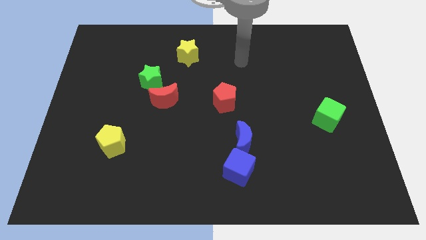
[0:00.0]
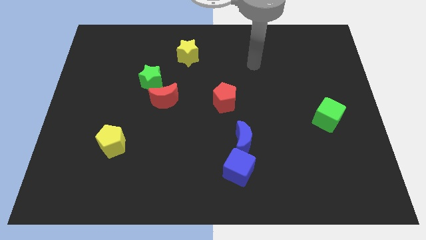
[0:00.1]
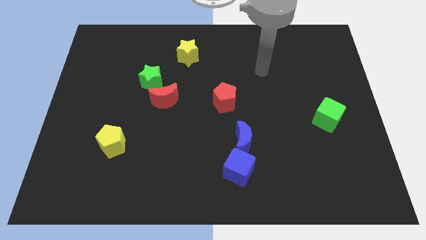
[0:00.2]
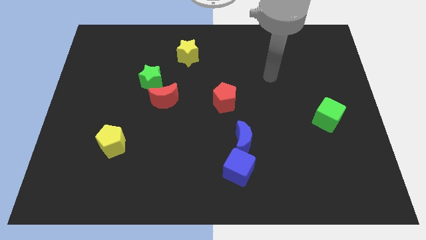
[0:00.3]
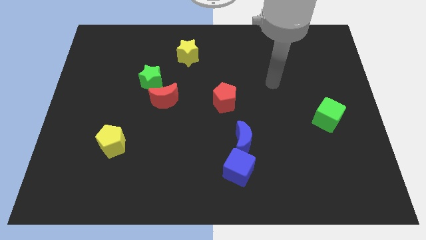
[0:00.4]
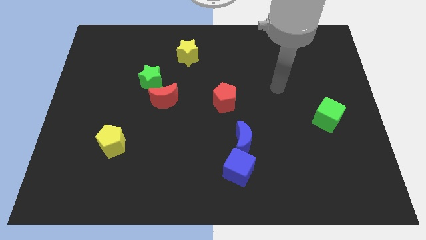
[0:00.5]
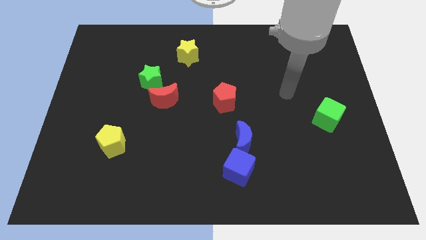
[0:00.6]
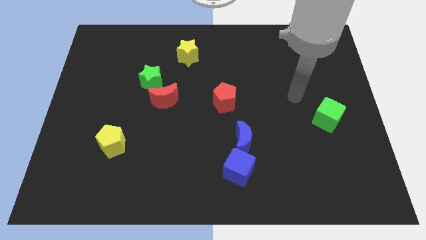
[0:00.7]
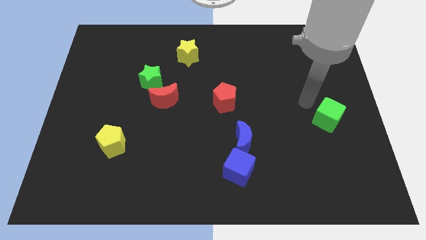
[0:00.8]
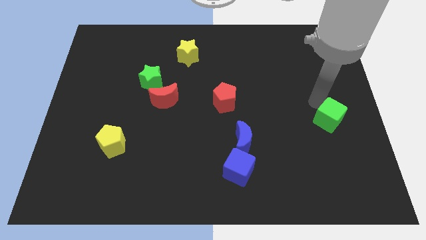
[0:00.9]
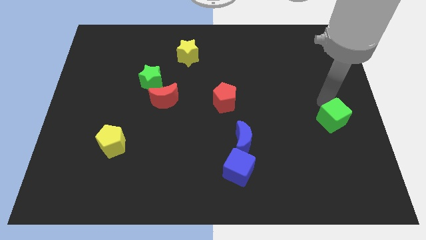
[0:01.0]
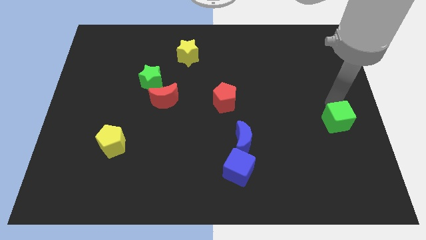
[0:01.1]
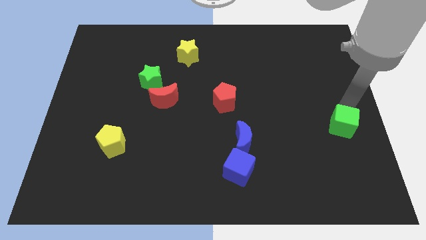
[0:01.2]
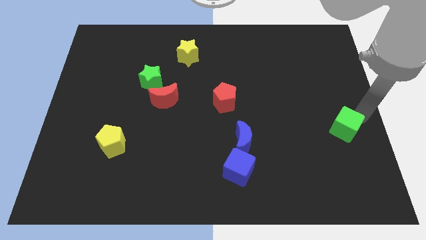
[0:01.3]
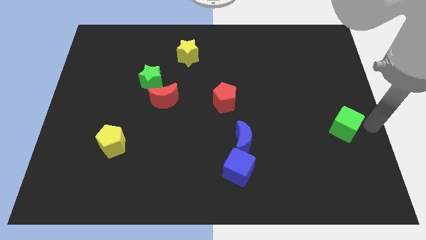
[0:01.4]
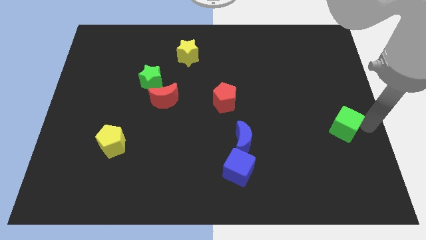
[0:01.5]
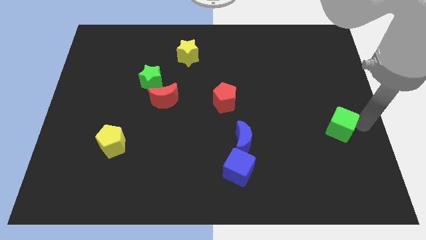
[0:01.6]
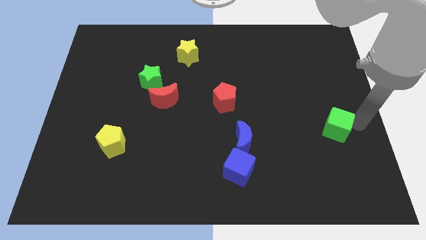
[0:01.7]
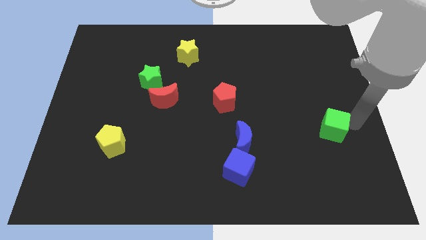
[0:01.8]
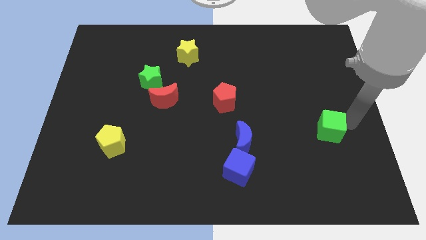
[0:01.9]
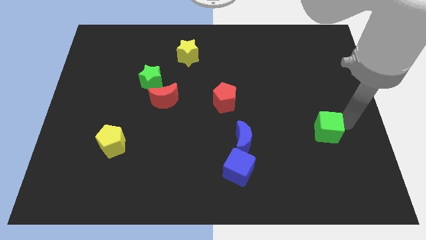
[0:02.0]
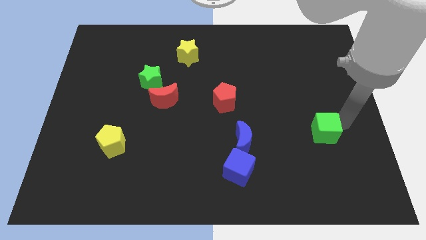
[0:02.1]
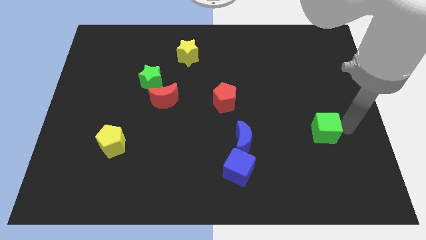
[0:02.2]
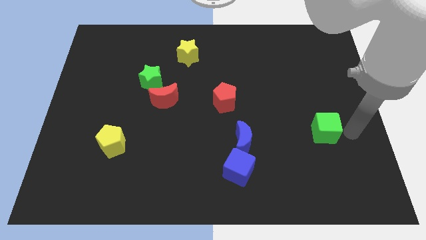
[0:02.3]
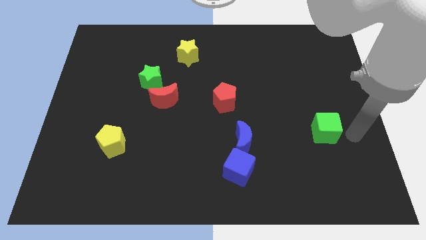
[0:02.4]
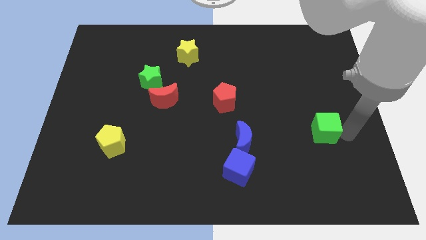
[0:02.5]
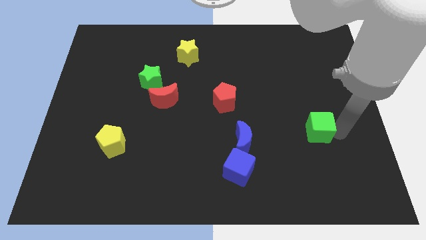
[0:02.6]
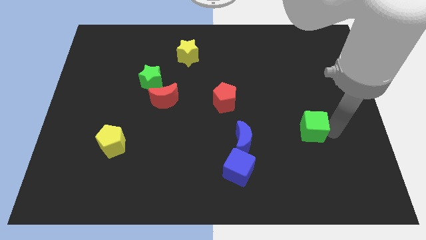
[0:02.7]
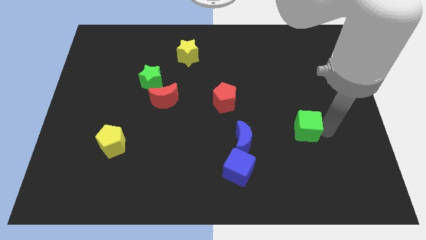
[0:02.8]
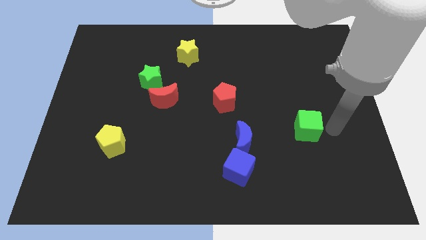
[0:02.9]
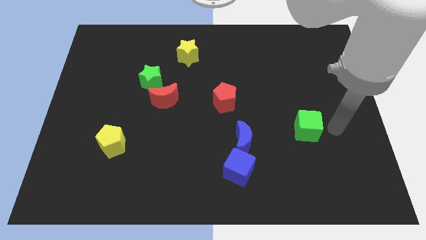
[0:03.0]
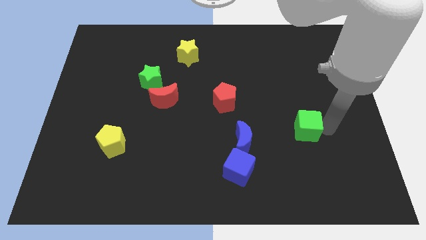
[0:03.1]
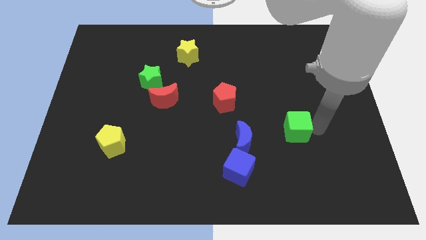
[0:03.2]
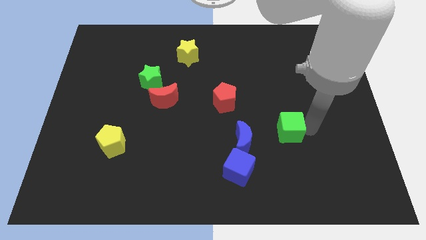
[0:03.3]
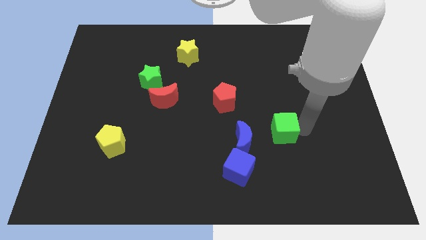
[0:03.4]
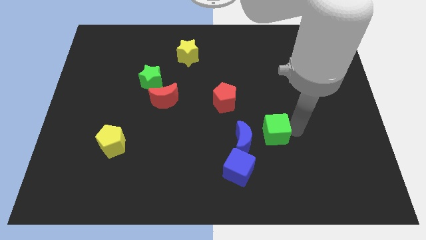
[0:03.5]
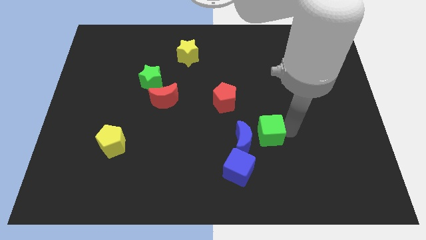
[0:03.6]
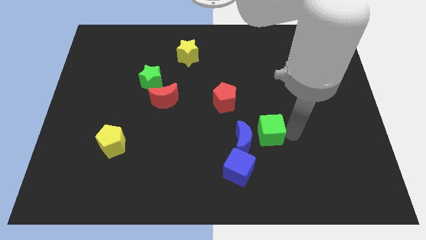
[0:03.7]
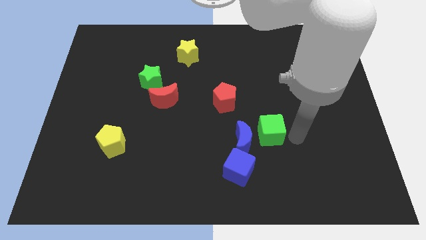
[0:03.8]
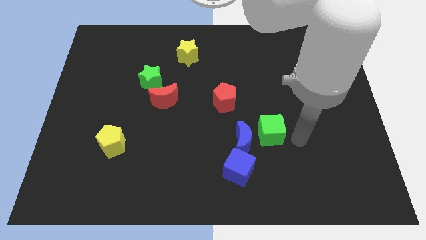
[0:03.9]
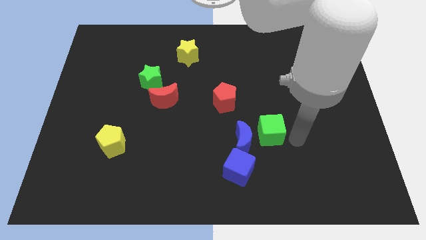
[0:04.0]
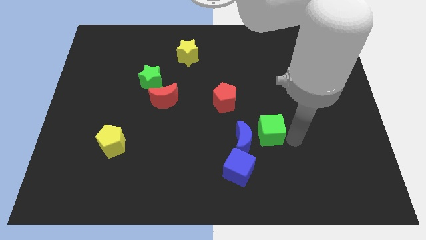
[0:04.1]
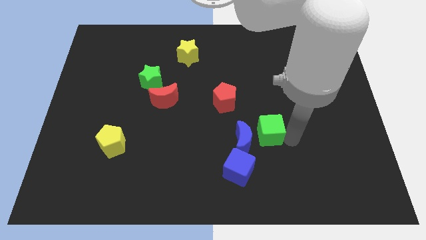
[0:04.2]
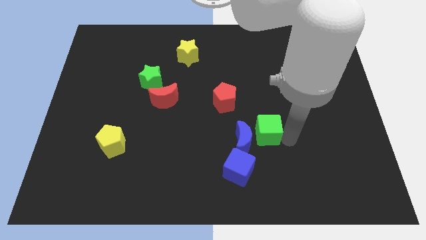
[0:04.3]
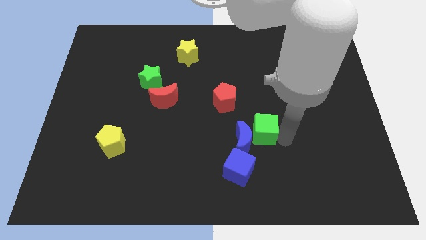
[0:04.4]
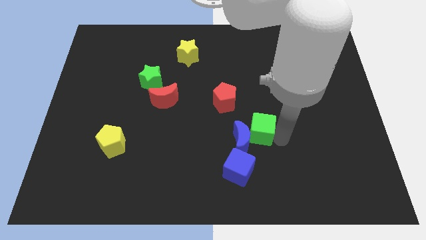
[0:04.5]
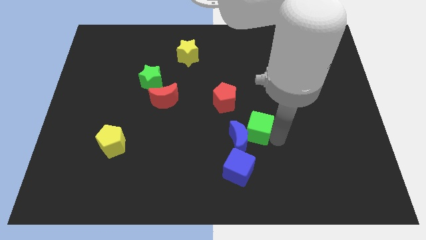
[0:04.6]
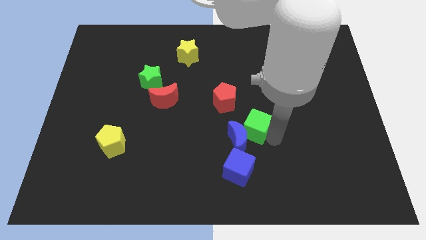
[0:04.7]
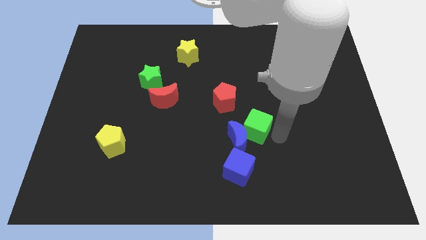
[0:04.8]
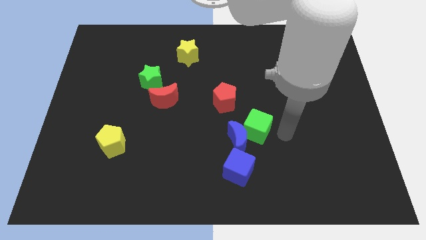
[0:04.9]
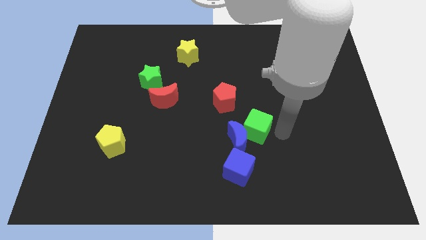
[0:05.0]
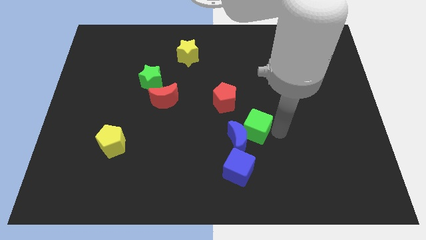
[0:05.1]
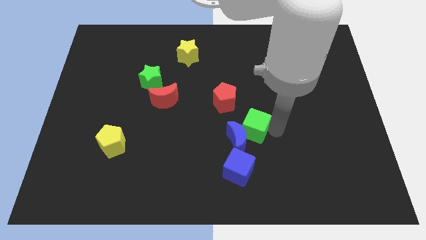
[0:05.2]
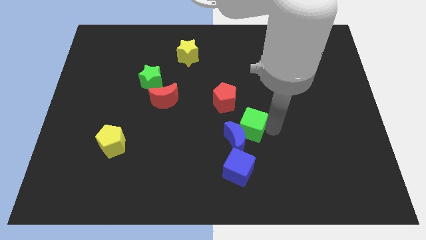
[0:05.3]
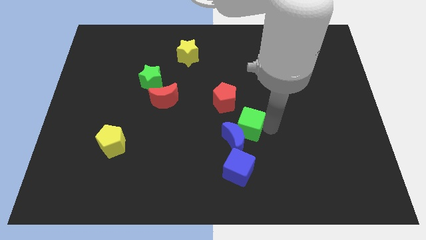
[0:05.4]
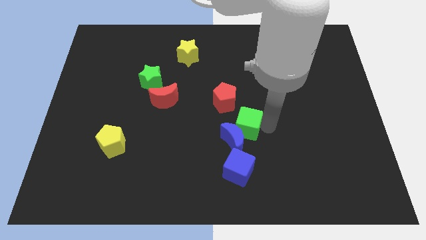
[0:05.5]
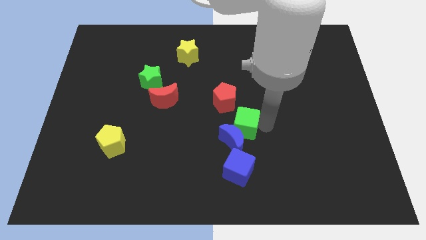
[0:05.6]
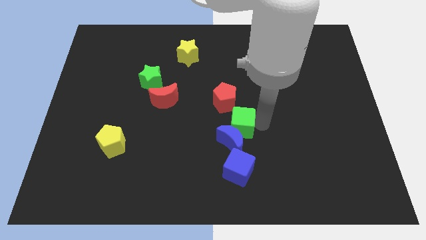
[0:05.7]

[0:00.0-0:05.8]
move the green cube to the left

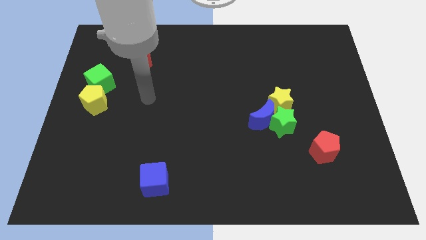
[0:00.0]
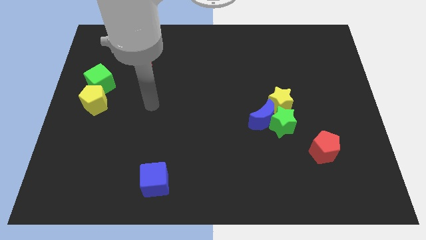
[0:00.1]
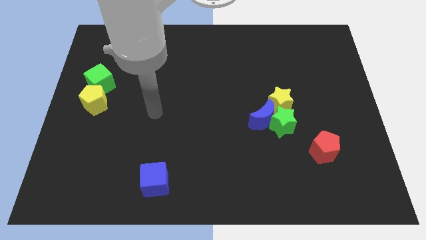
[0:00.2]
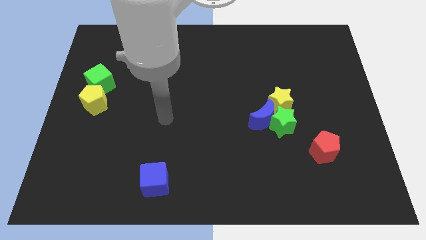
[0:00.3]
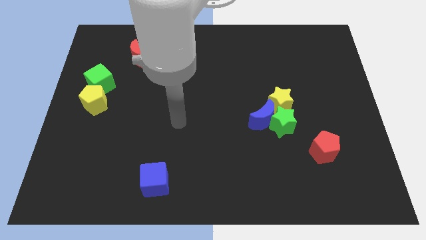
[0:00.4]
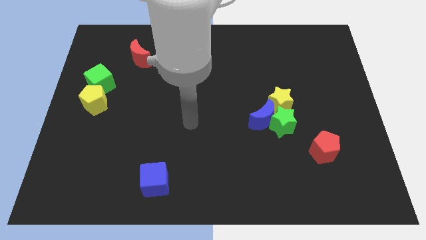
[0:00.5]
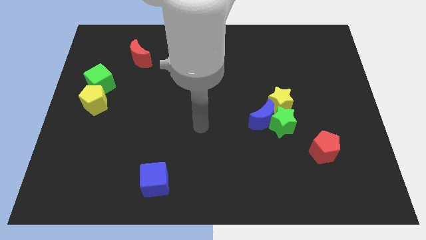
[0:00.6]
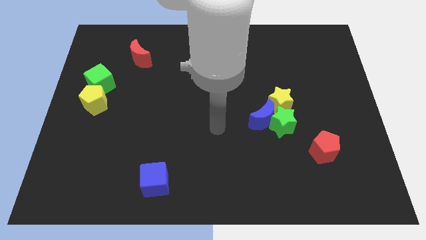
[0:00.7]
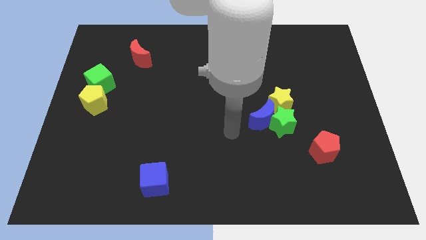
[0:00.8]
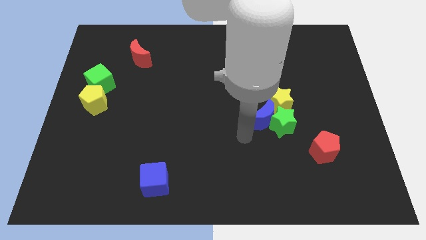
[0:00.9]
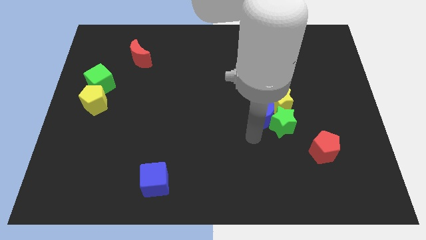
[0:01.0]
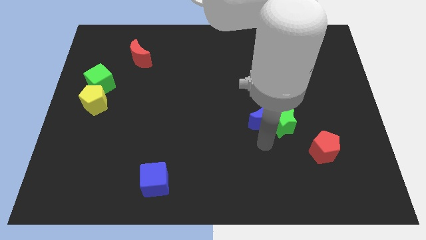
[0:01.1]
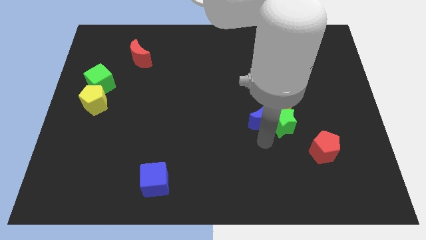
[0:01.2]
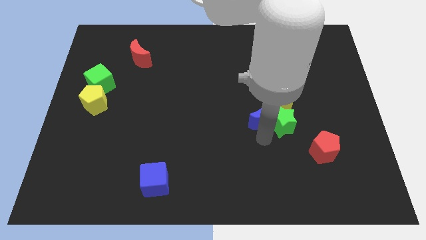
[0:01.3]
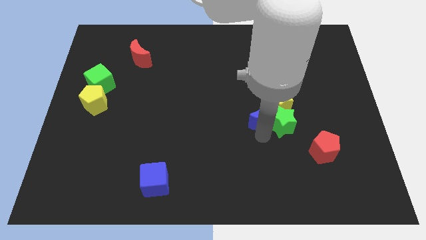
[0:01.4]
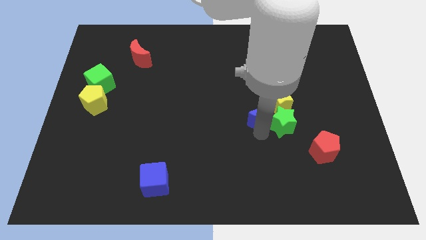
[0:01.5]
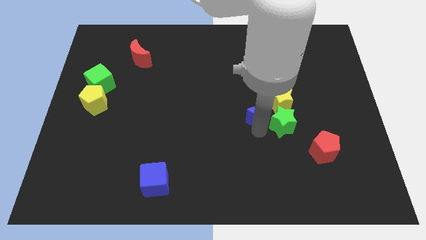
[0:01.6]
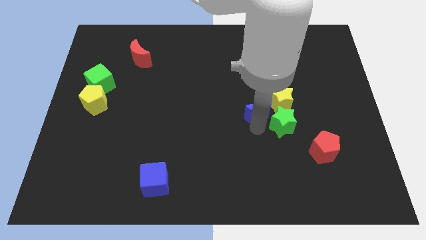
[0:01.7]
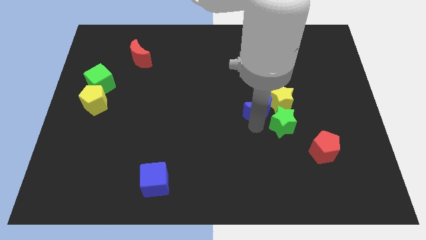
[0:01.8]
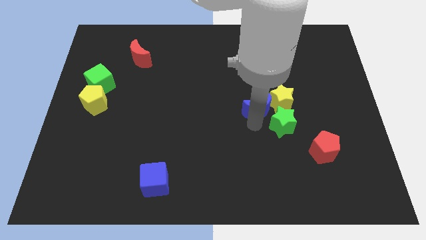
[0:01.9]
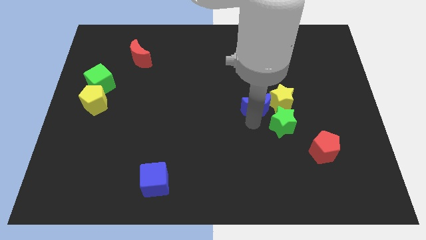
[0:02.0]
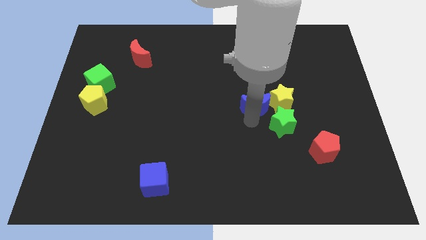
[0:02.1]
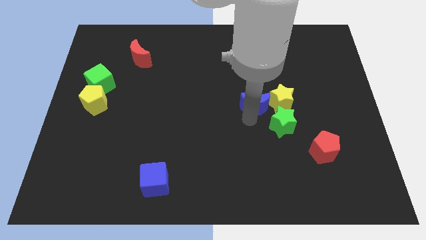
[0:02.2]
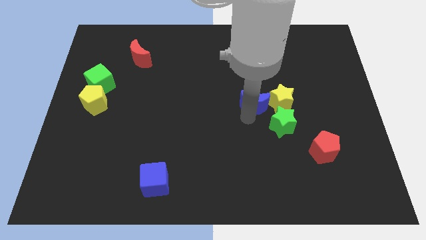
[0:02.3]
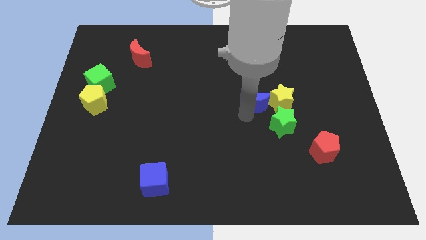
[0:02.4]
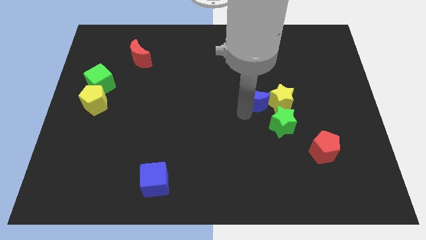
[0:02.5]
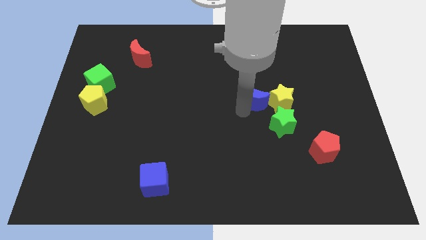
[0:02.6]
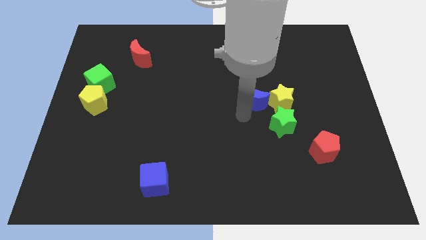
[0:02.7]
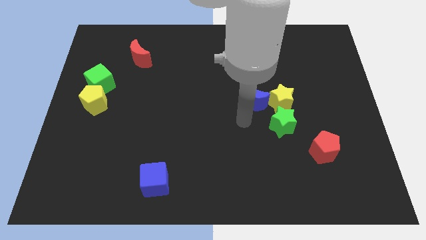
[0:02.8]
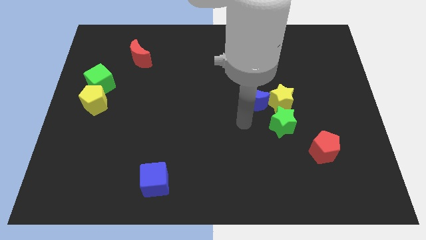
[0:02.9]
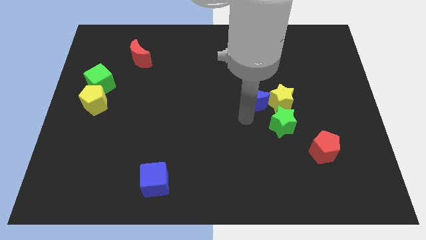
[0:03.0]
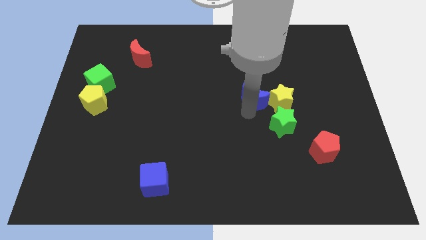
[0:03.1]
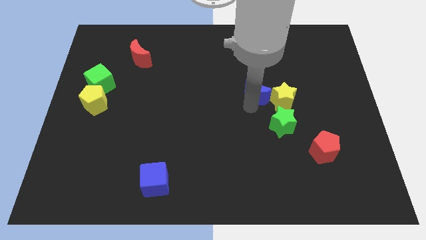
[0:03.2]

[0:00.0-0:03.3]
push the blue moon up a little
